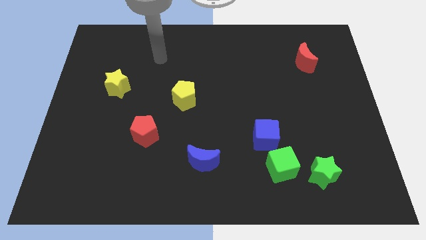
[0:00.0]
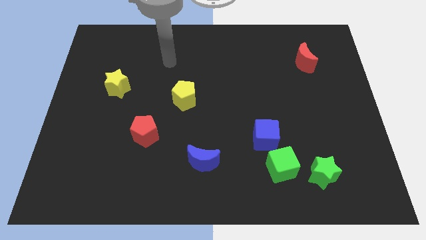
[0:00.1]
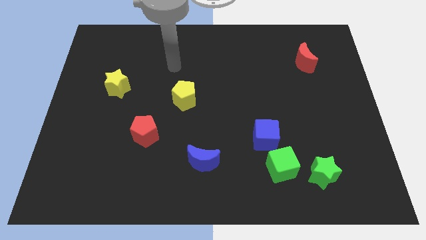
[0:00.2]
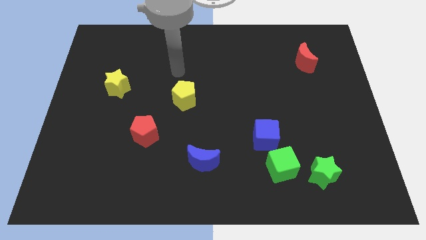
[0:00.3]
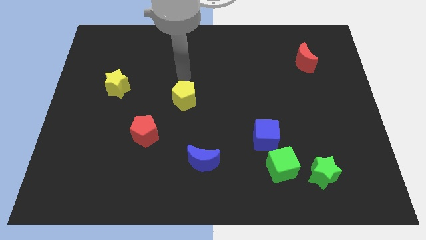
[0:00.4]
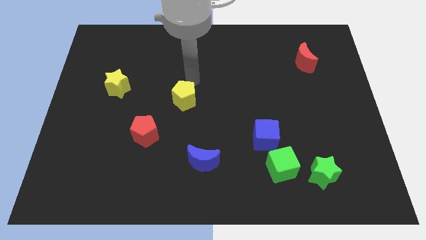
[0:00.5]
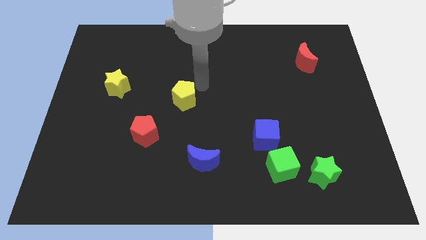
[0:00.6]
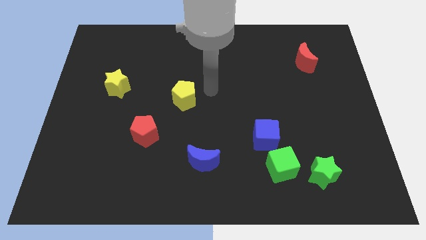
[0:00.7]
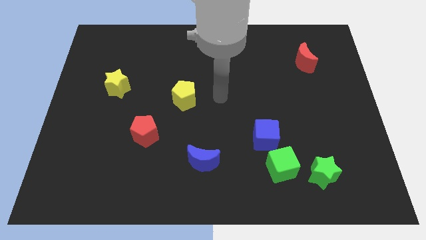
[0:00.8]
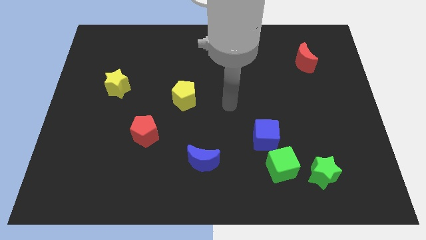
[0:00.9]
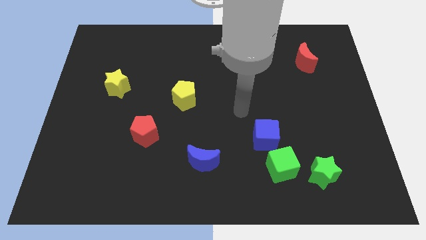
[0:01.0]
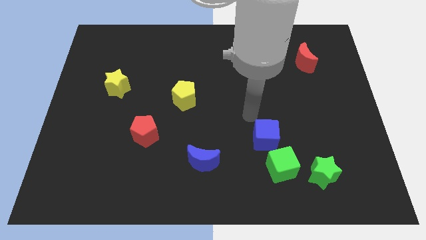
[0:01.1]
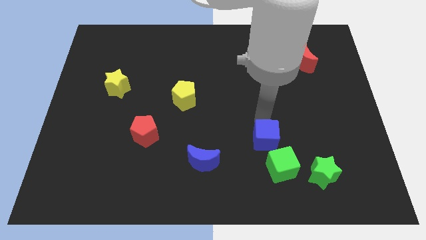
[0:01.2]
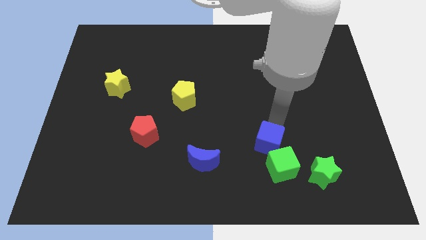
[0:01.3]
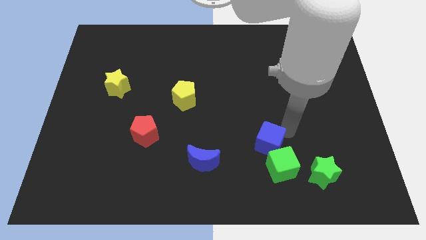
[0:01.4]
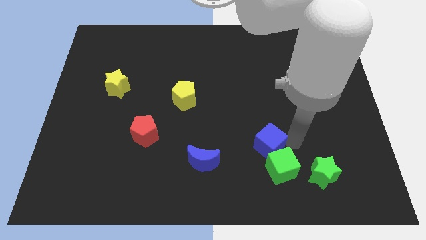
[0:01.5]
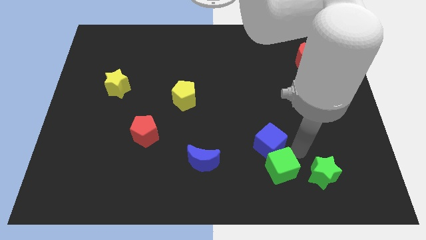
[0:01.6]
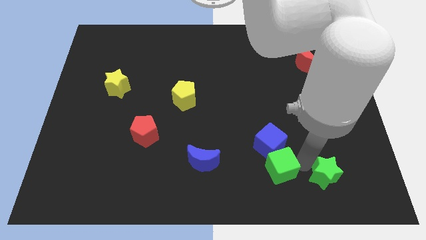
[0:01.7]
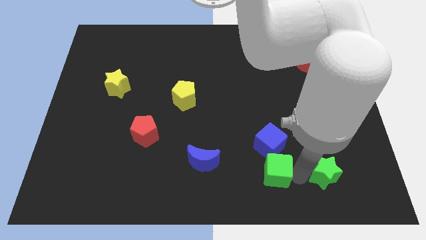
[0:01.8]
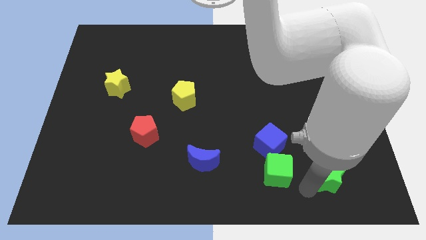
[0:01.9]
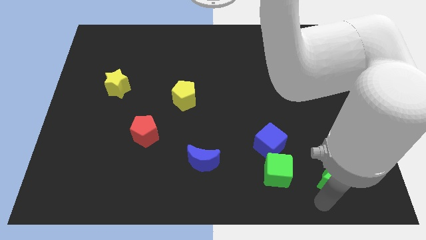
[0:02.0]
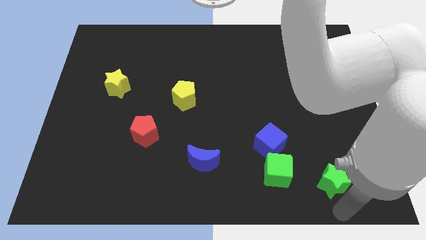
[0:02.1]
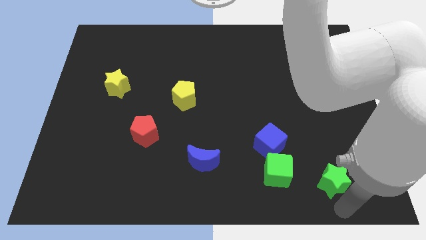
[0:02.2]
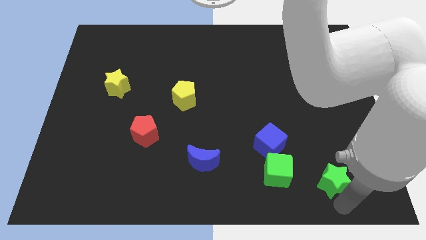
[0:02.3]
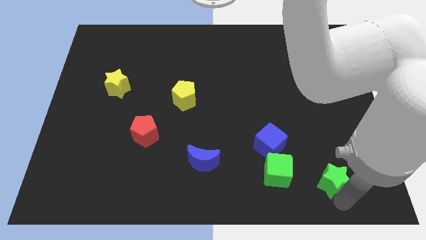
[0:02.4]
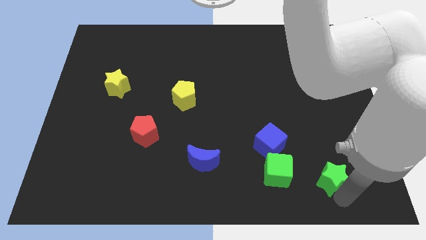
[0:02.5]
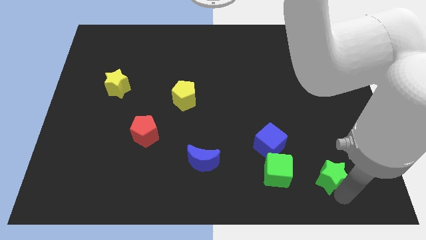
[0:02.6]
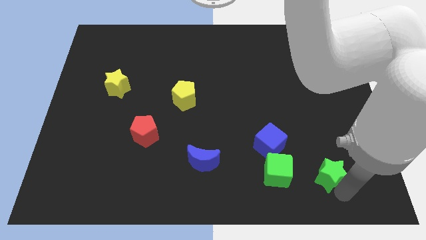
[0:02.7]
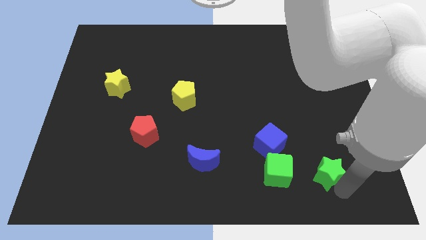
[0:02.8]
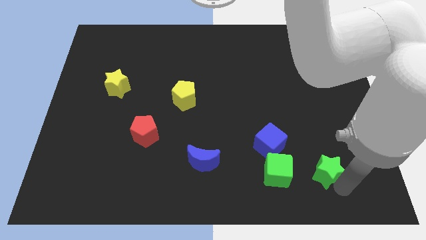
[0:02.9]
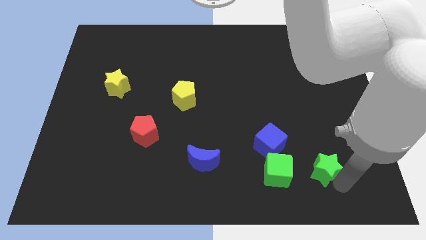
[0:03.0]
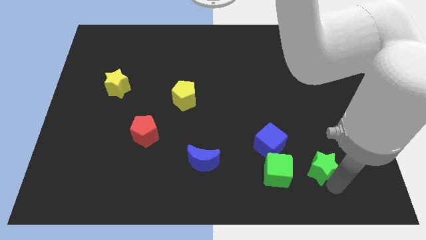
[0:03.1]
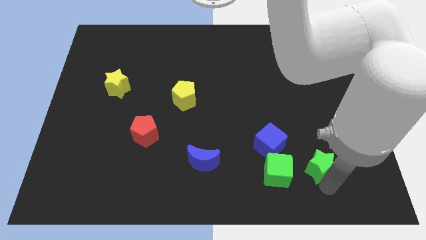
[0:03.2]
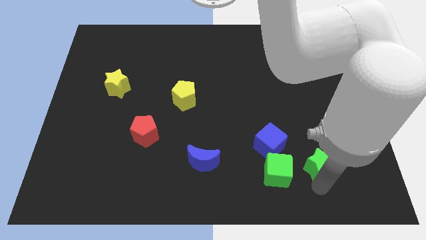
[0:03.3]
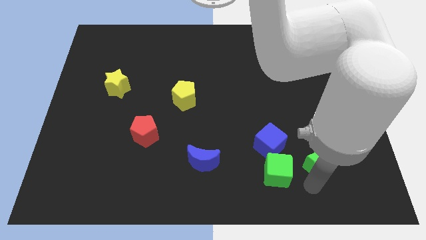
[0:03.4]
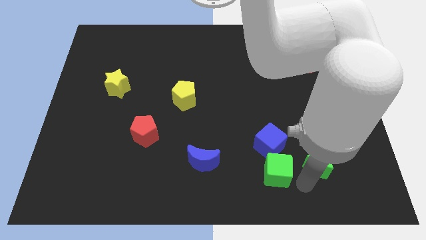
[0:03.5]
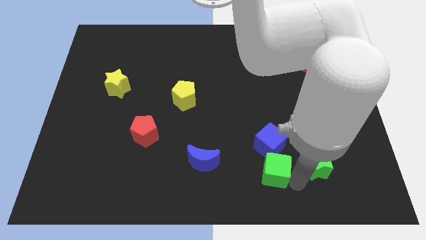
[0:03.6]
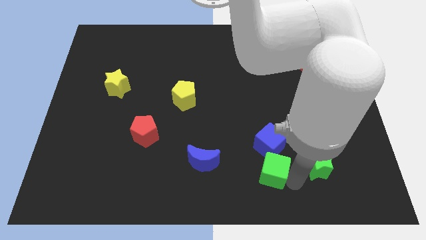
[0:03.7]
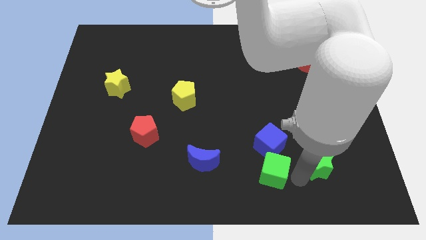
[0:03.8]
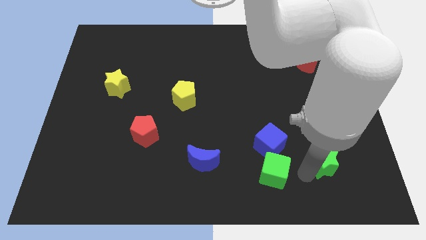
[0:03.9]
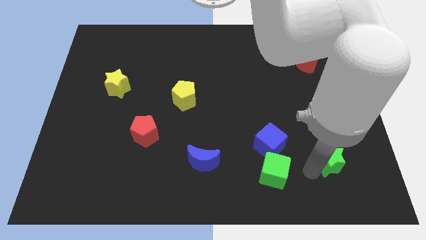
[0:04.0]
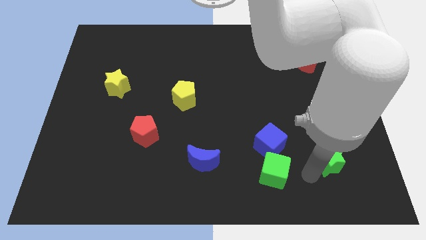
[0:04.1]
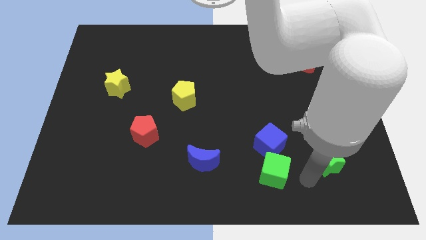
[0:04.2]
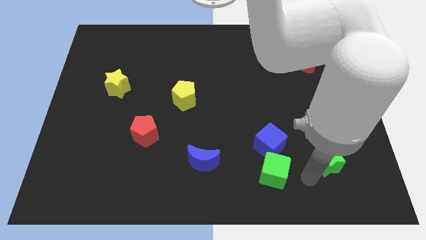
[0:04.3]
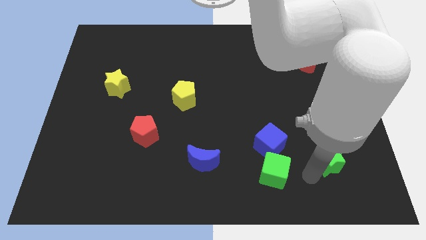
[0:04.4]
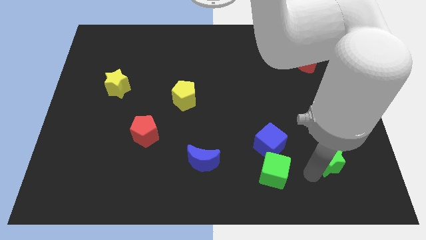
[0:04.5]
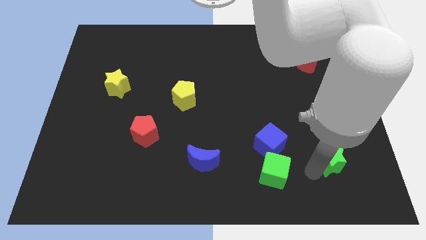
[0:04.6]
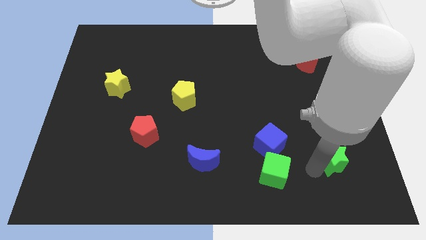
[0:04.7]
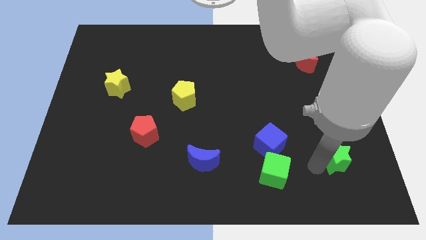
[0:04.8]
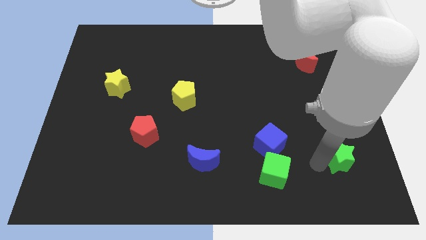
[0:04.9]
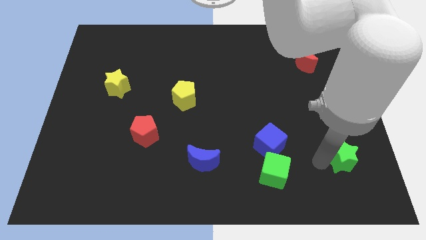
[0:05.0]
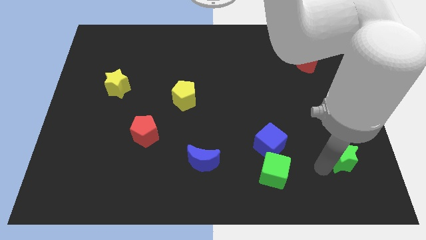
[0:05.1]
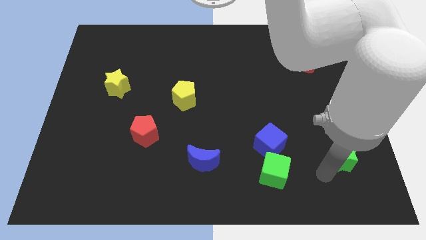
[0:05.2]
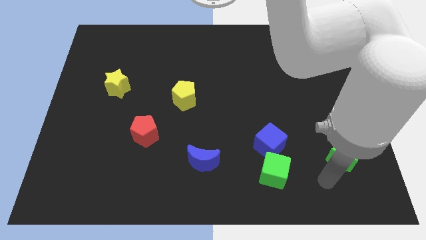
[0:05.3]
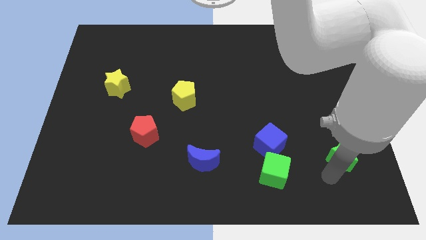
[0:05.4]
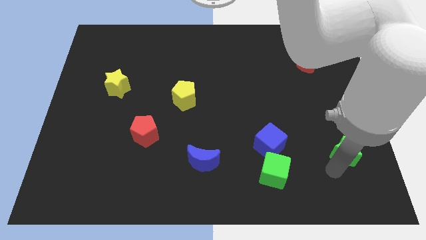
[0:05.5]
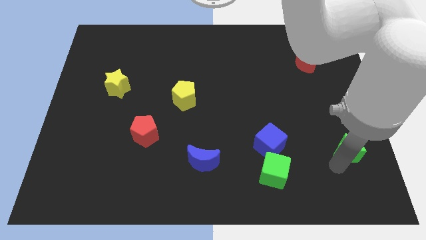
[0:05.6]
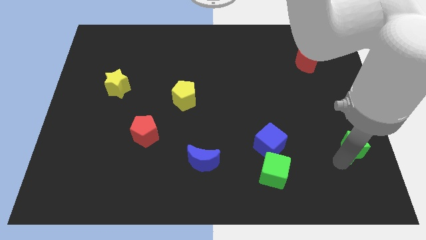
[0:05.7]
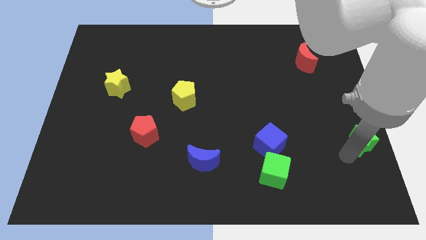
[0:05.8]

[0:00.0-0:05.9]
slide the green star to the right side
